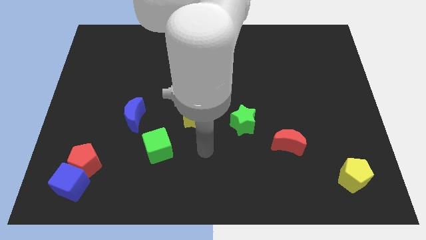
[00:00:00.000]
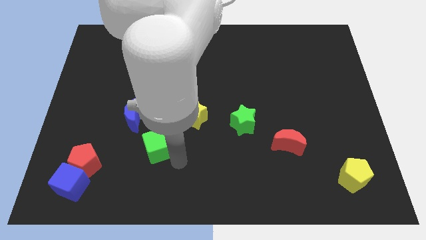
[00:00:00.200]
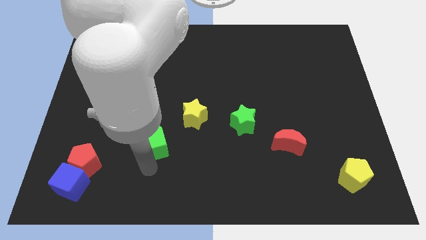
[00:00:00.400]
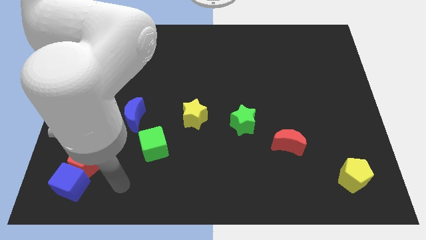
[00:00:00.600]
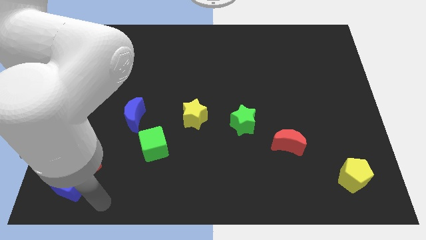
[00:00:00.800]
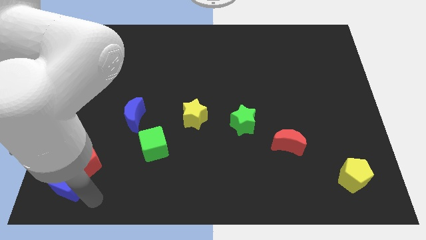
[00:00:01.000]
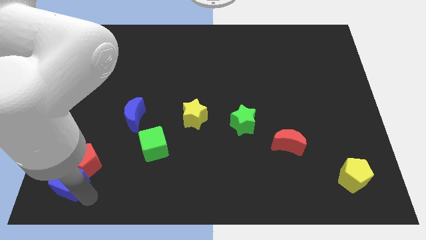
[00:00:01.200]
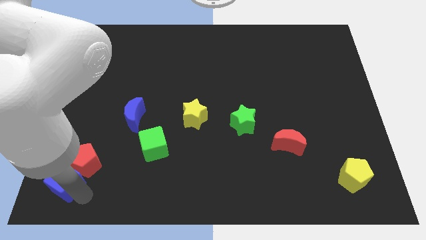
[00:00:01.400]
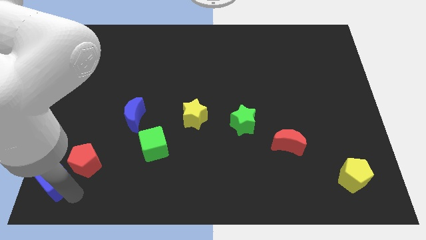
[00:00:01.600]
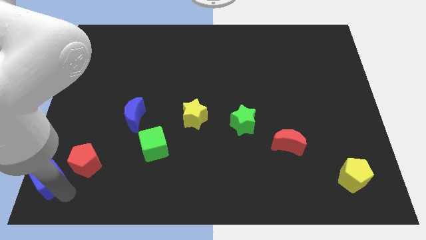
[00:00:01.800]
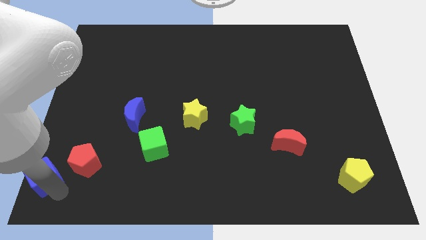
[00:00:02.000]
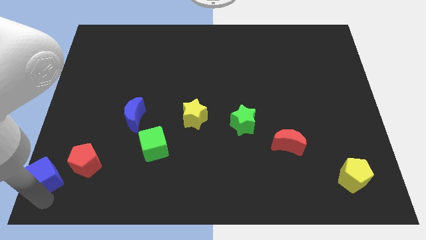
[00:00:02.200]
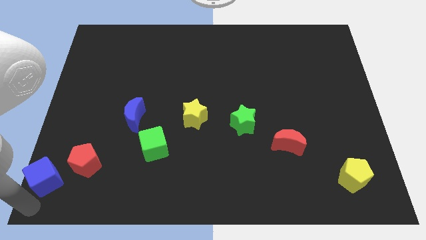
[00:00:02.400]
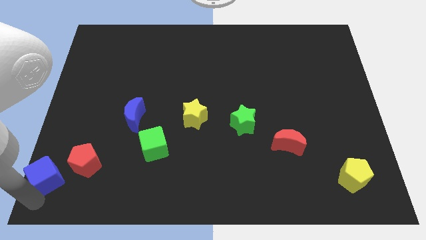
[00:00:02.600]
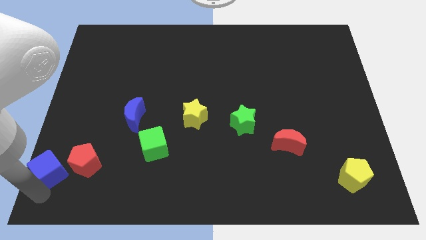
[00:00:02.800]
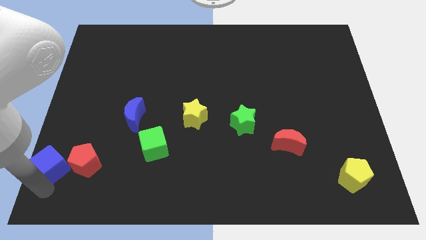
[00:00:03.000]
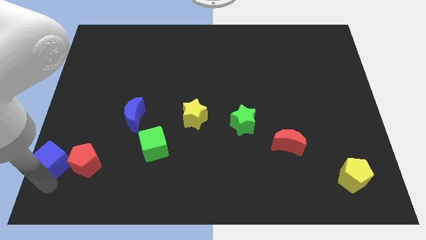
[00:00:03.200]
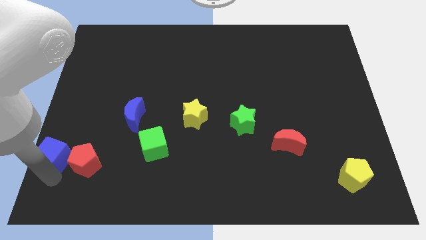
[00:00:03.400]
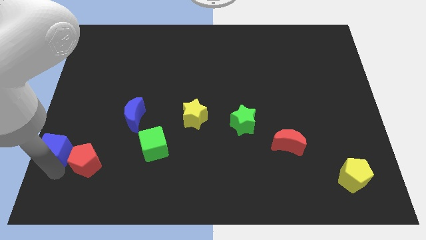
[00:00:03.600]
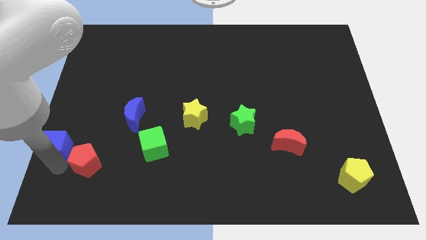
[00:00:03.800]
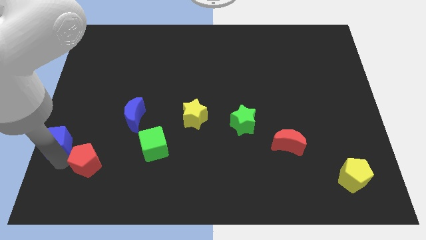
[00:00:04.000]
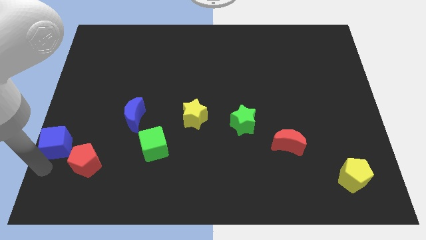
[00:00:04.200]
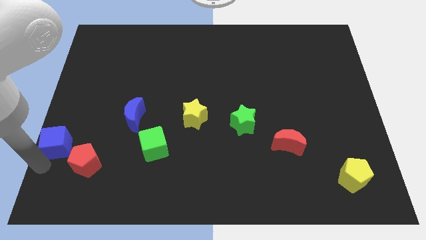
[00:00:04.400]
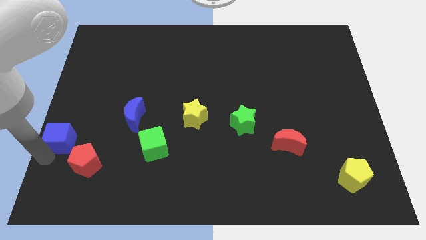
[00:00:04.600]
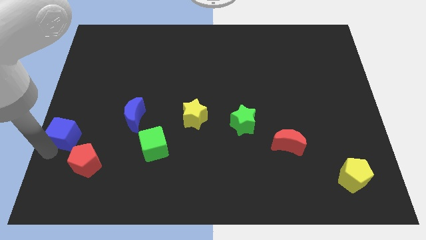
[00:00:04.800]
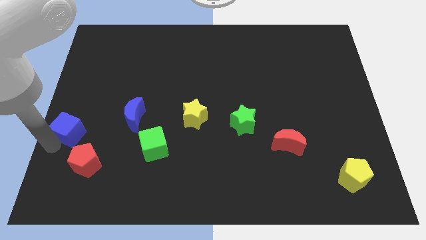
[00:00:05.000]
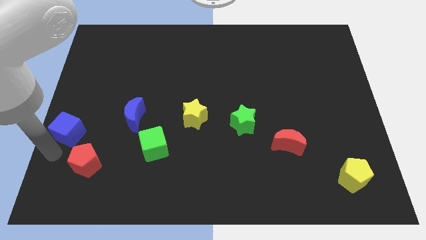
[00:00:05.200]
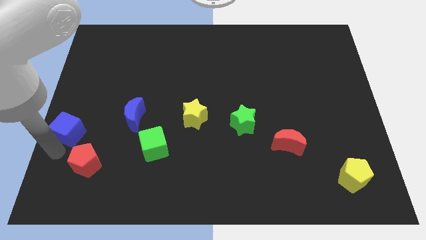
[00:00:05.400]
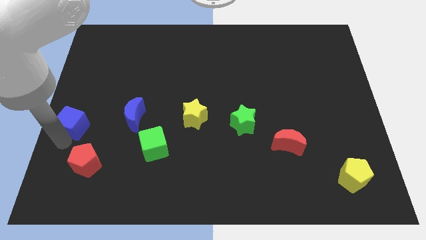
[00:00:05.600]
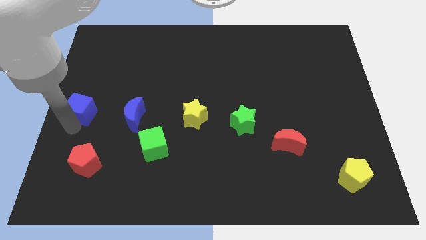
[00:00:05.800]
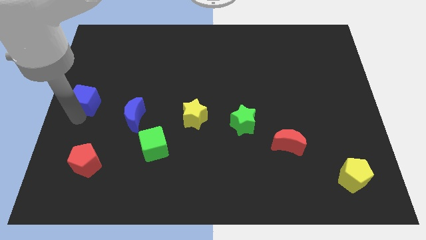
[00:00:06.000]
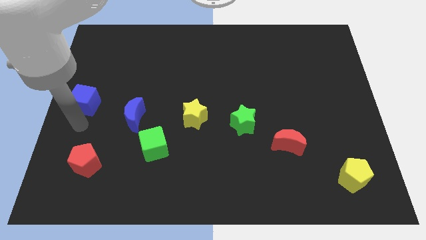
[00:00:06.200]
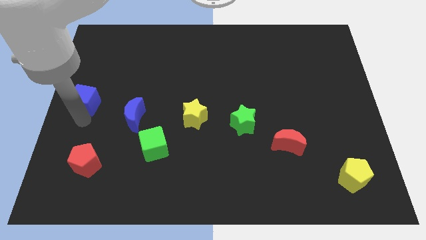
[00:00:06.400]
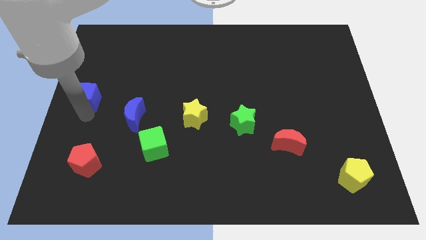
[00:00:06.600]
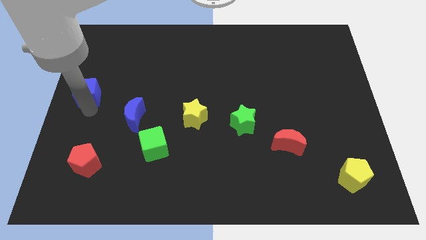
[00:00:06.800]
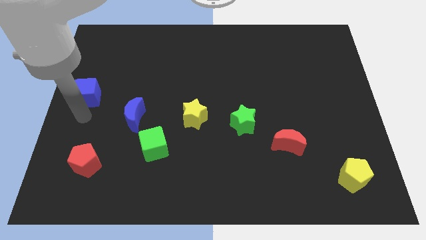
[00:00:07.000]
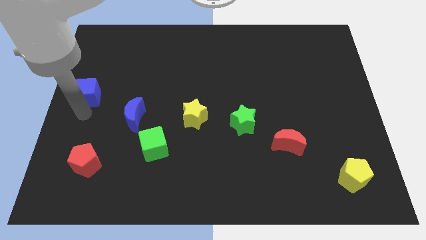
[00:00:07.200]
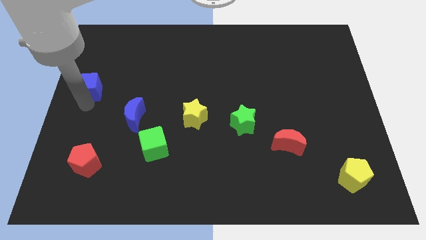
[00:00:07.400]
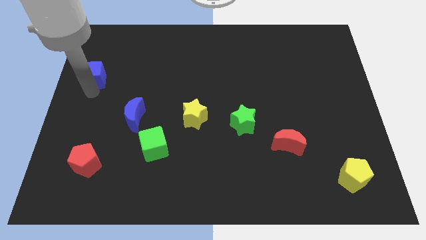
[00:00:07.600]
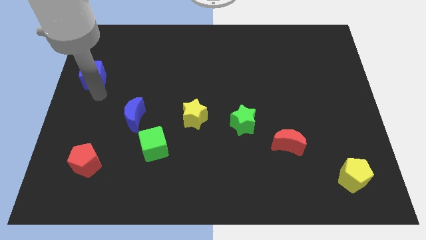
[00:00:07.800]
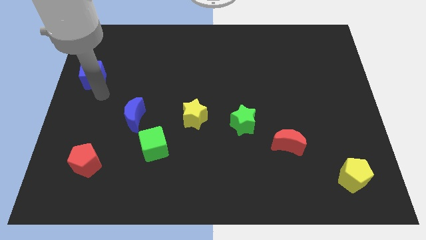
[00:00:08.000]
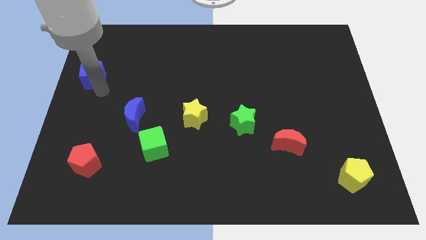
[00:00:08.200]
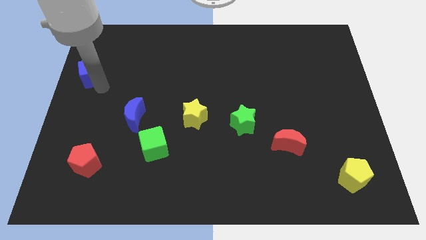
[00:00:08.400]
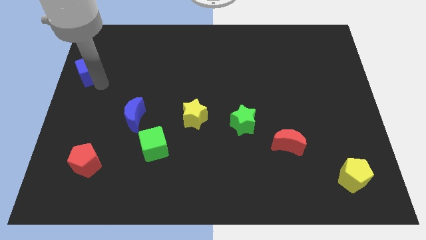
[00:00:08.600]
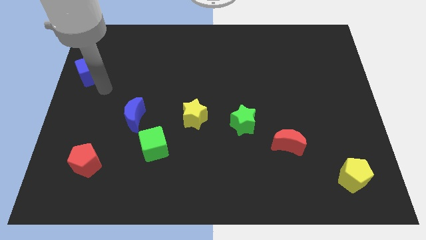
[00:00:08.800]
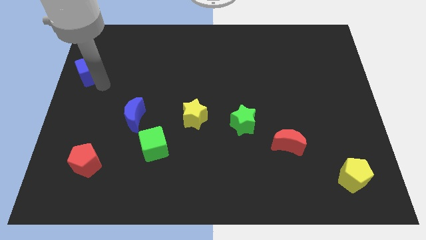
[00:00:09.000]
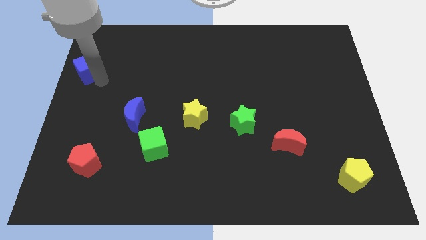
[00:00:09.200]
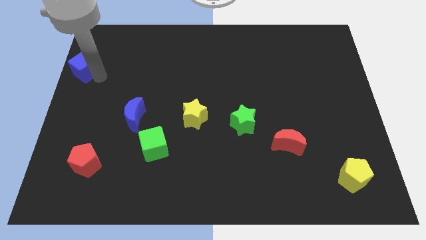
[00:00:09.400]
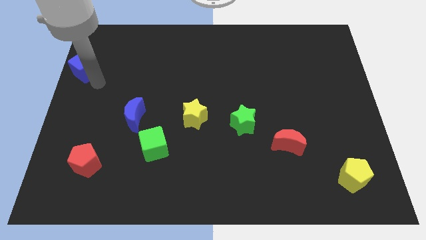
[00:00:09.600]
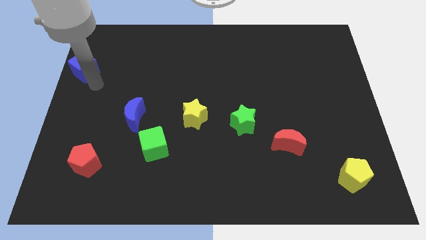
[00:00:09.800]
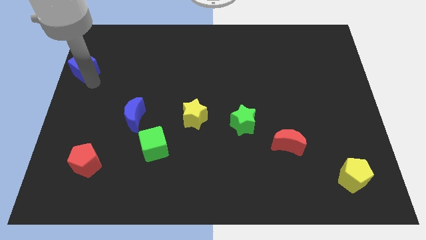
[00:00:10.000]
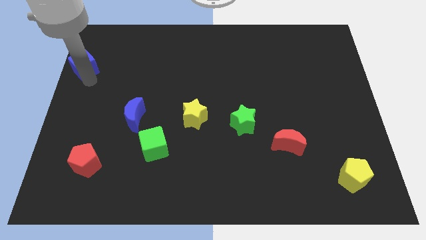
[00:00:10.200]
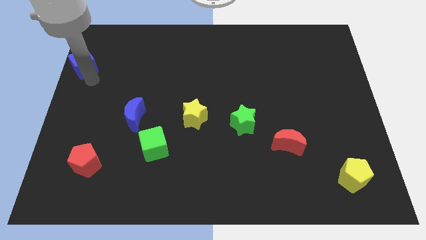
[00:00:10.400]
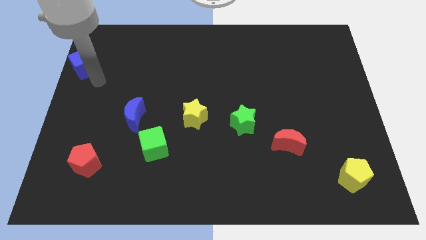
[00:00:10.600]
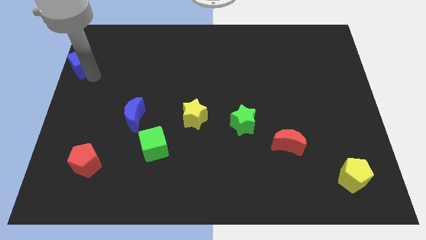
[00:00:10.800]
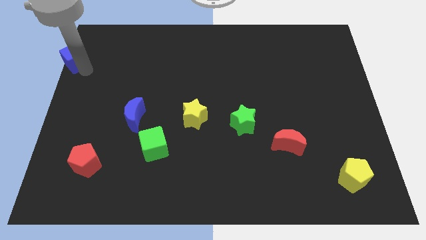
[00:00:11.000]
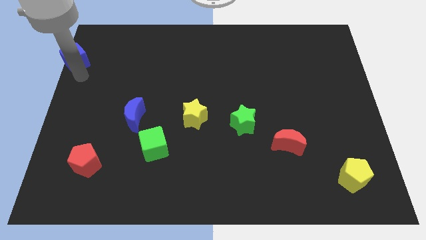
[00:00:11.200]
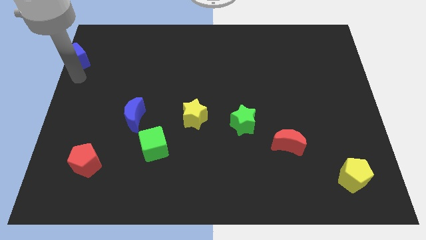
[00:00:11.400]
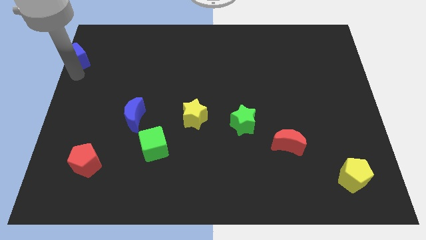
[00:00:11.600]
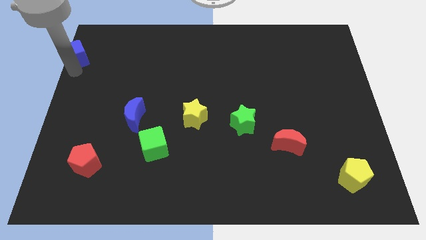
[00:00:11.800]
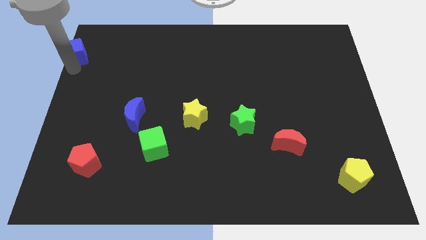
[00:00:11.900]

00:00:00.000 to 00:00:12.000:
move the blue cube to the top left corner
